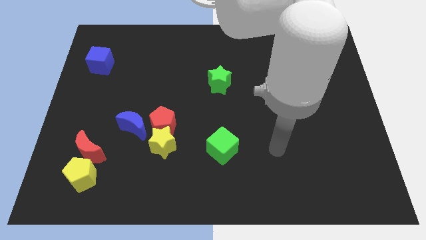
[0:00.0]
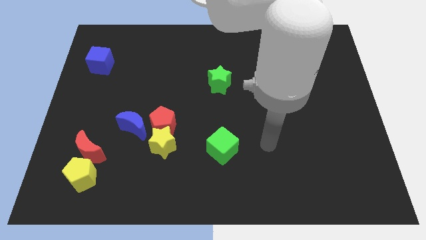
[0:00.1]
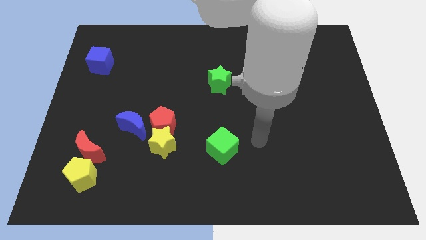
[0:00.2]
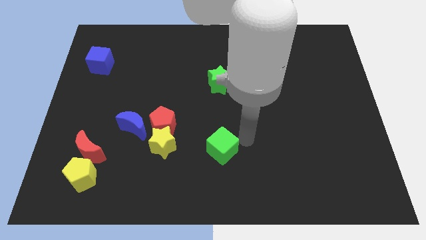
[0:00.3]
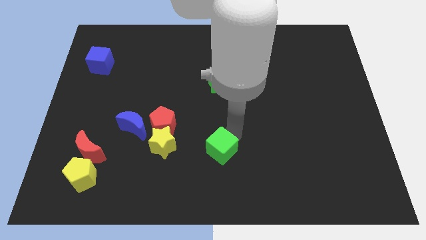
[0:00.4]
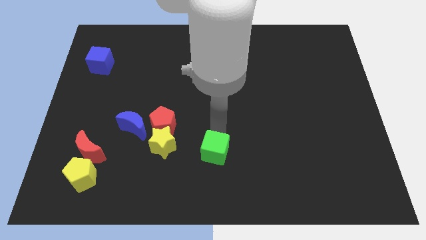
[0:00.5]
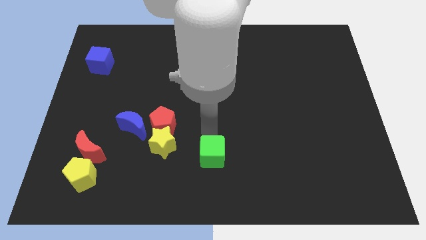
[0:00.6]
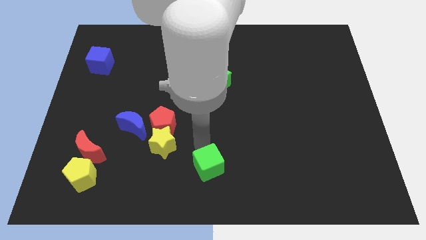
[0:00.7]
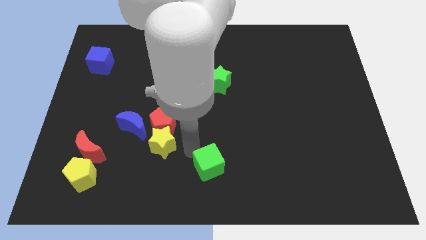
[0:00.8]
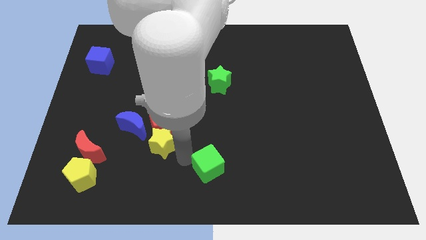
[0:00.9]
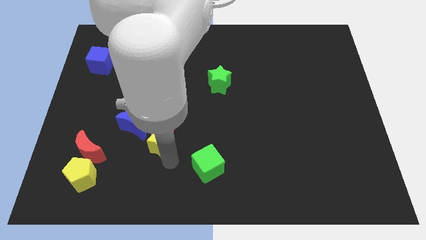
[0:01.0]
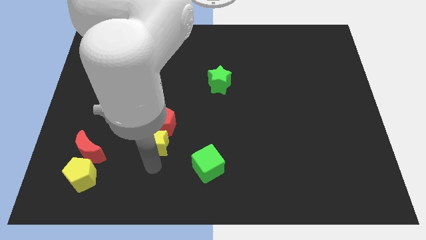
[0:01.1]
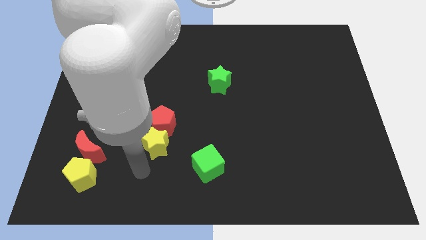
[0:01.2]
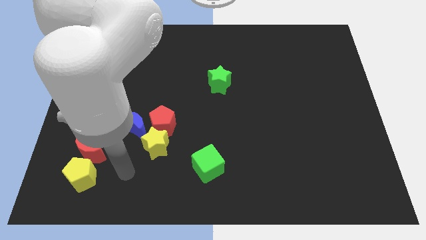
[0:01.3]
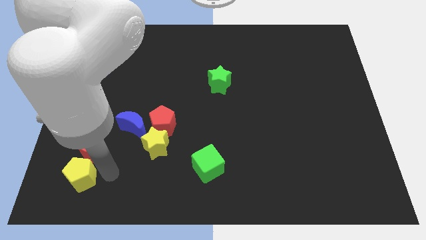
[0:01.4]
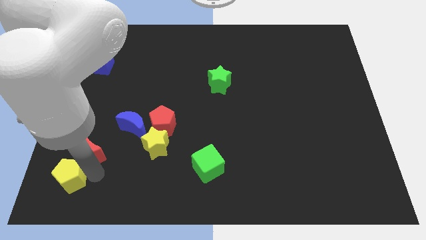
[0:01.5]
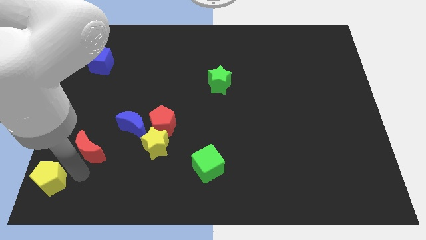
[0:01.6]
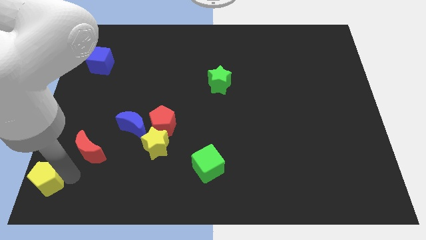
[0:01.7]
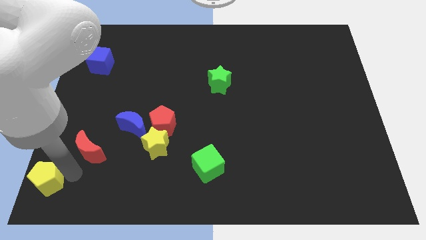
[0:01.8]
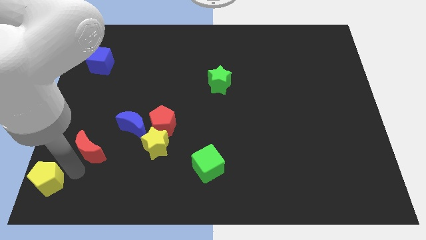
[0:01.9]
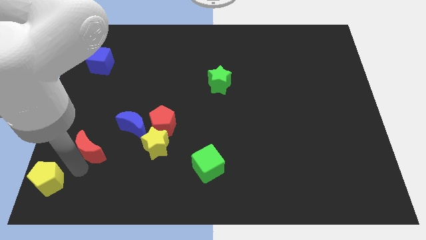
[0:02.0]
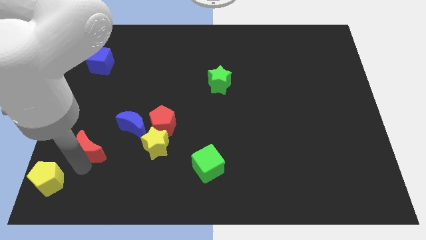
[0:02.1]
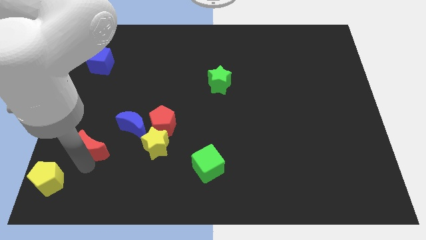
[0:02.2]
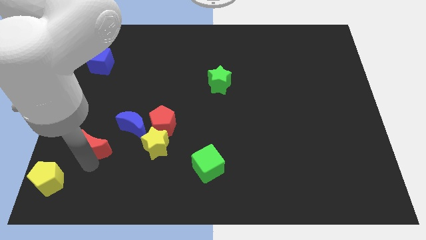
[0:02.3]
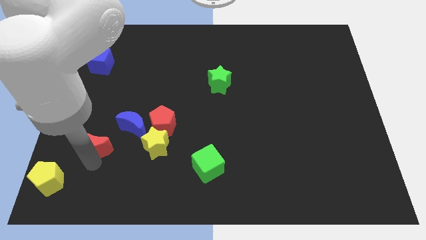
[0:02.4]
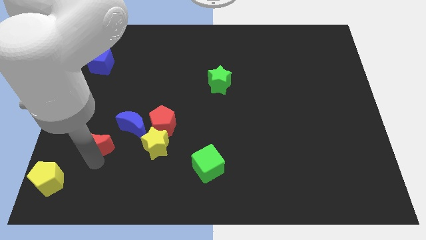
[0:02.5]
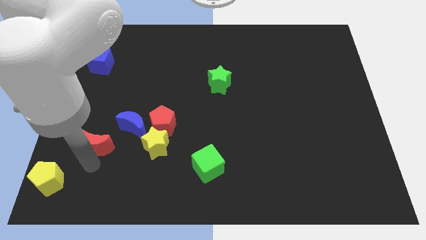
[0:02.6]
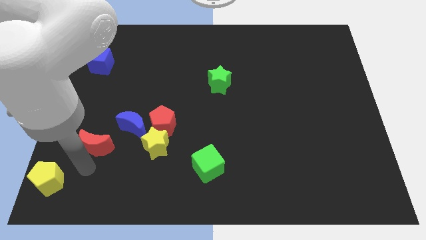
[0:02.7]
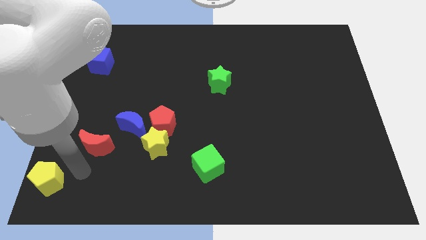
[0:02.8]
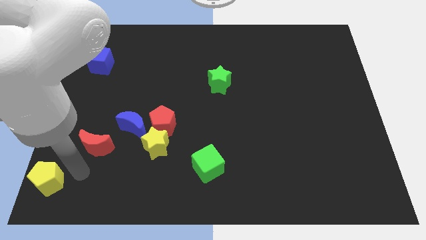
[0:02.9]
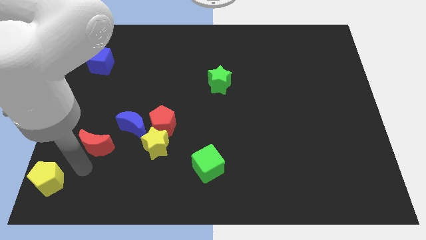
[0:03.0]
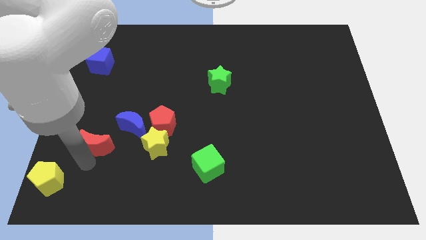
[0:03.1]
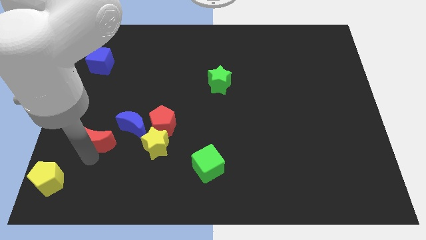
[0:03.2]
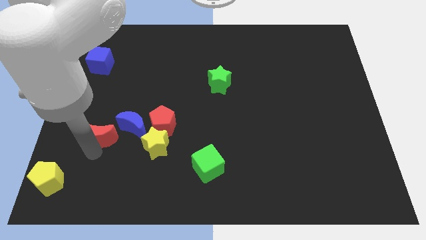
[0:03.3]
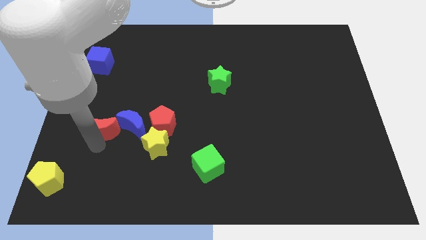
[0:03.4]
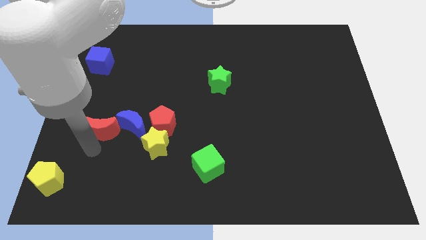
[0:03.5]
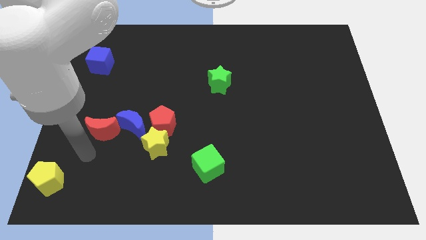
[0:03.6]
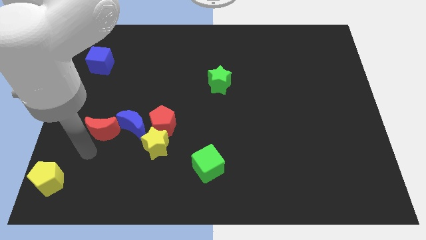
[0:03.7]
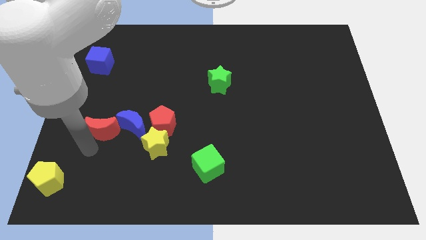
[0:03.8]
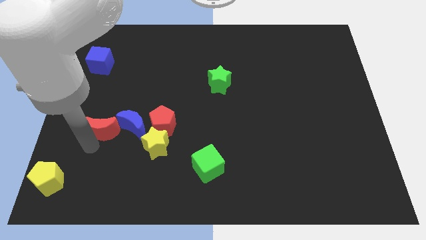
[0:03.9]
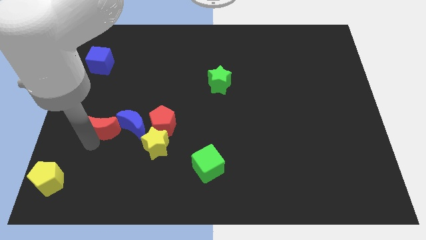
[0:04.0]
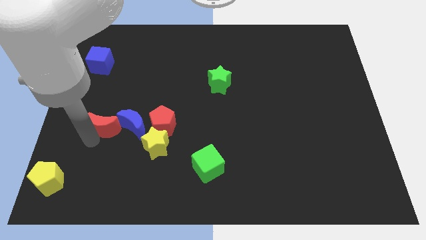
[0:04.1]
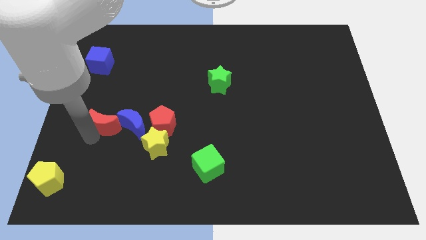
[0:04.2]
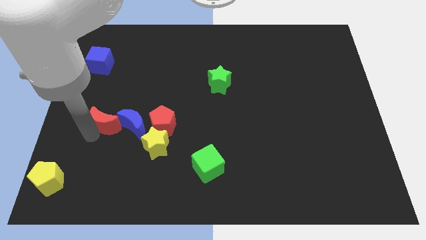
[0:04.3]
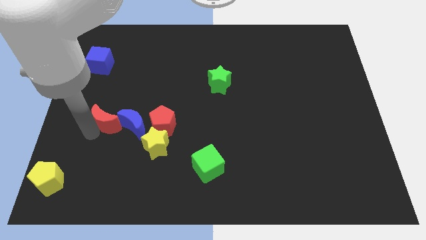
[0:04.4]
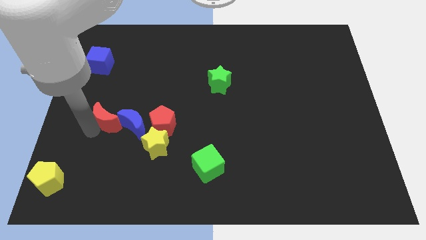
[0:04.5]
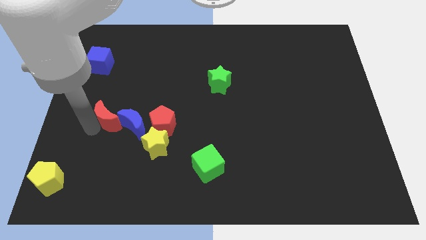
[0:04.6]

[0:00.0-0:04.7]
move the red moon slightly upwards and right

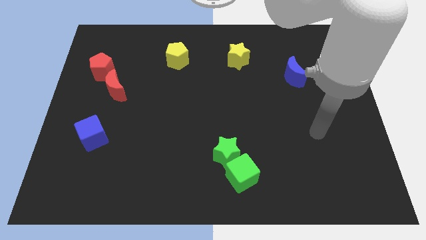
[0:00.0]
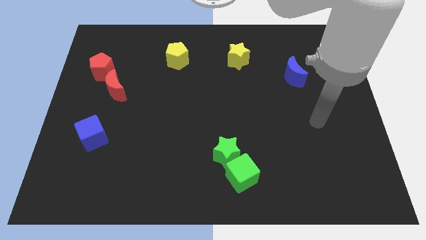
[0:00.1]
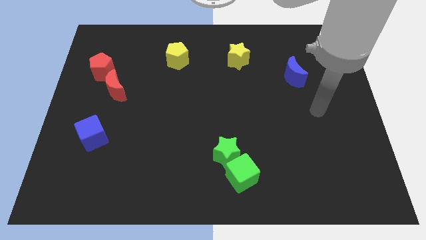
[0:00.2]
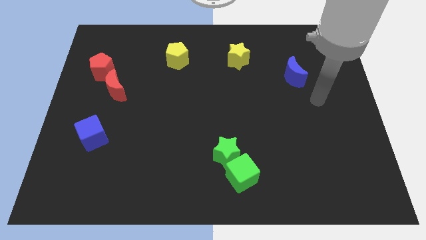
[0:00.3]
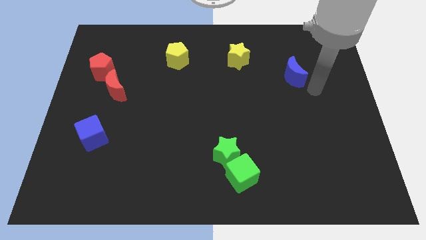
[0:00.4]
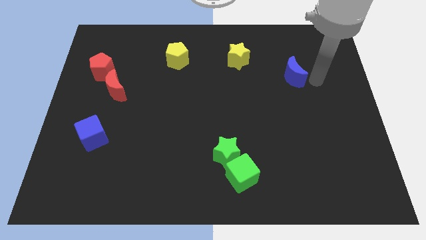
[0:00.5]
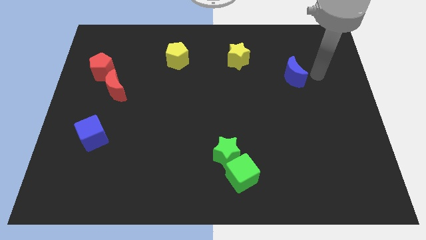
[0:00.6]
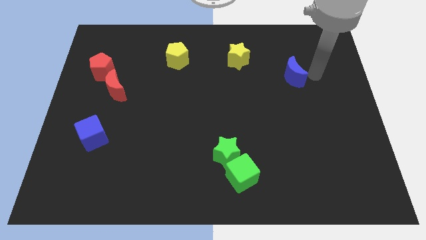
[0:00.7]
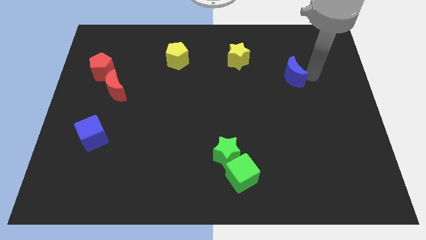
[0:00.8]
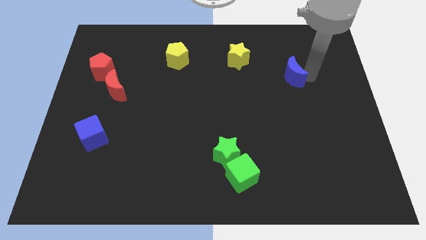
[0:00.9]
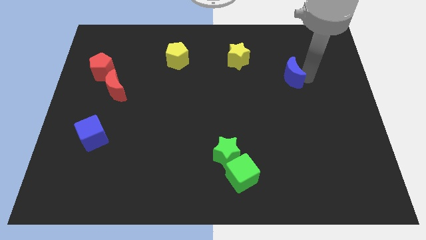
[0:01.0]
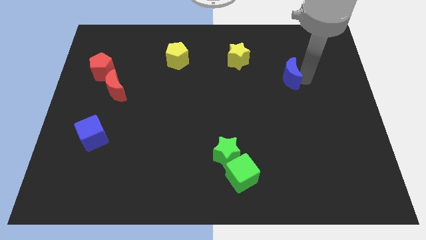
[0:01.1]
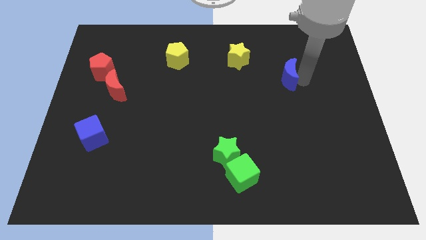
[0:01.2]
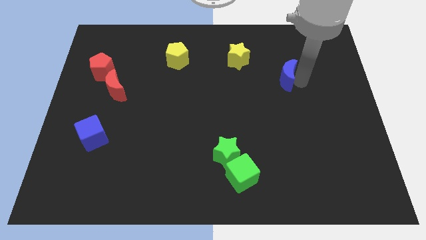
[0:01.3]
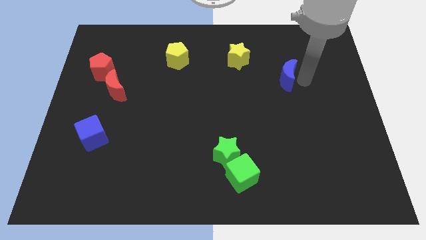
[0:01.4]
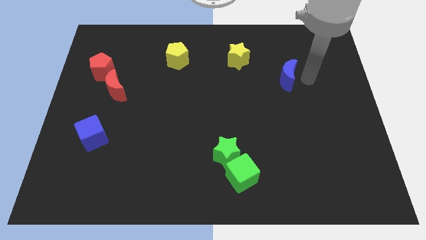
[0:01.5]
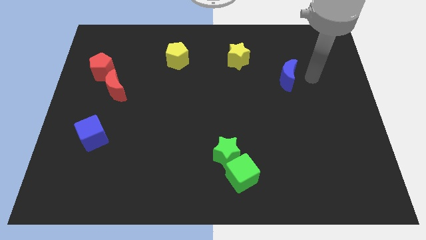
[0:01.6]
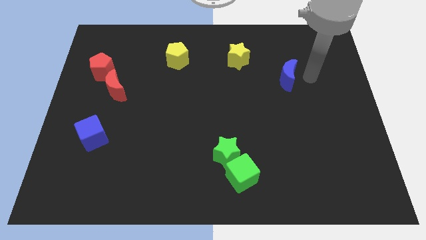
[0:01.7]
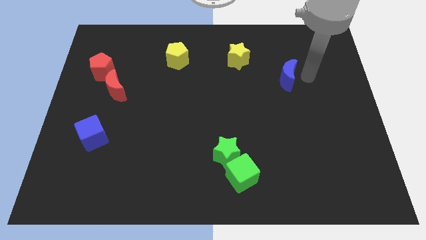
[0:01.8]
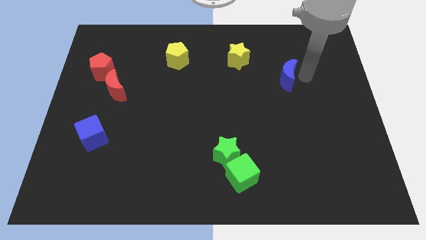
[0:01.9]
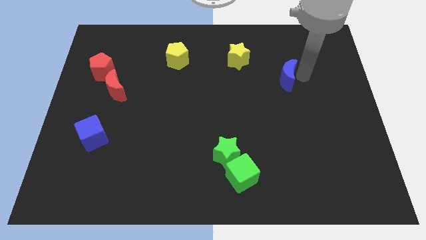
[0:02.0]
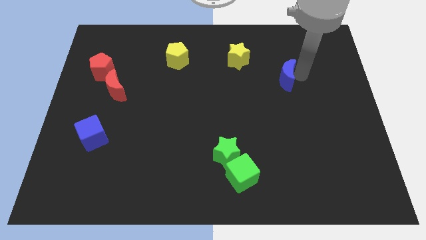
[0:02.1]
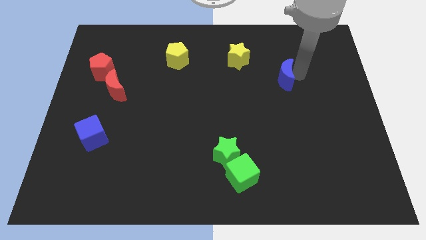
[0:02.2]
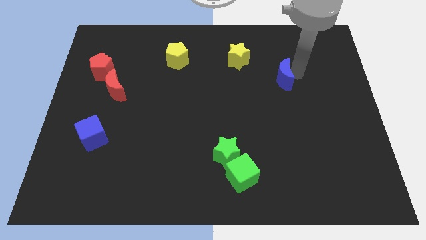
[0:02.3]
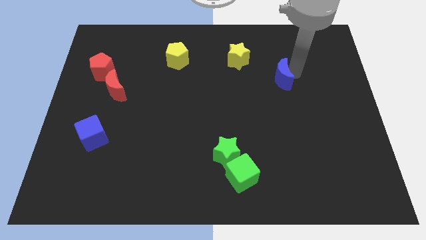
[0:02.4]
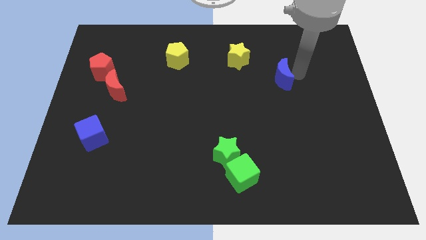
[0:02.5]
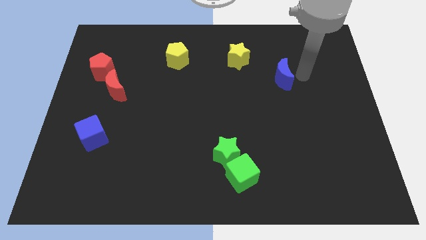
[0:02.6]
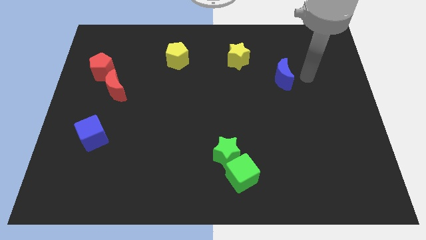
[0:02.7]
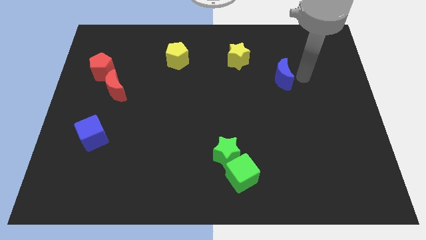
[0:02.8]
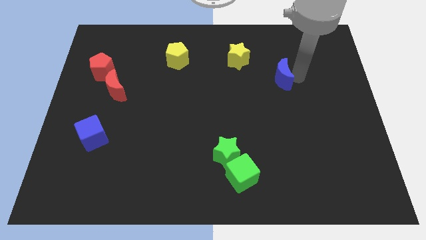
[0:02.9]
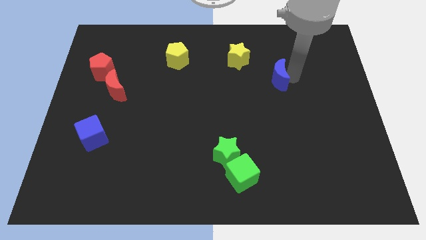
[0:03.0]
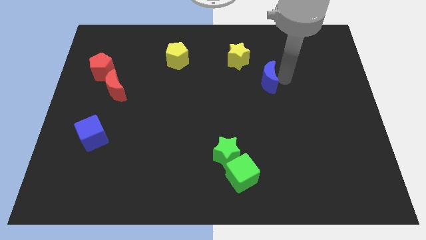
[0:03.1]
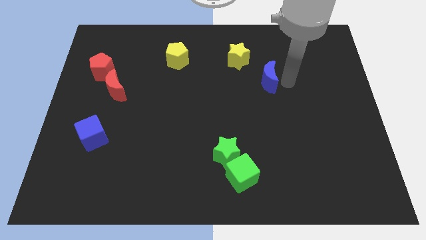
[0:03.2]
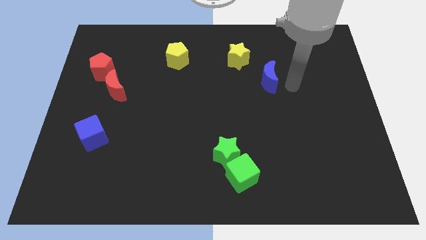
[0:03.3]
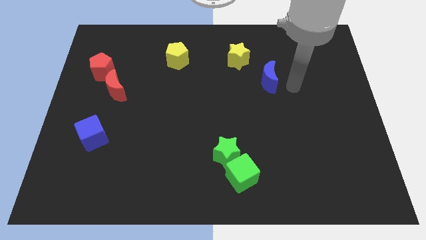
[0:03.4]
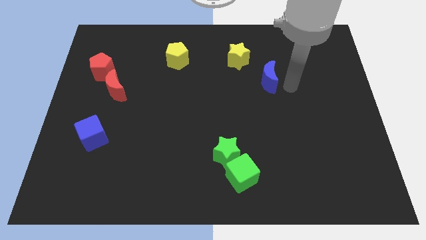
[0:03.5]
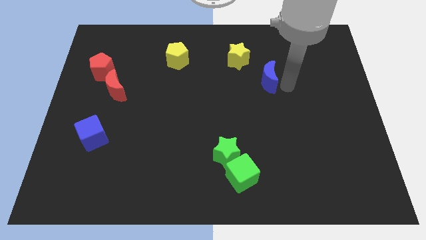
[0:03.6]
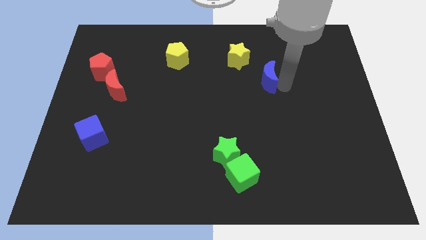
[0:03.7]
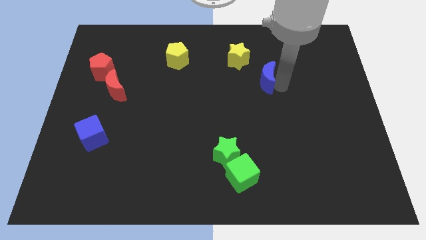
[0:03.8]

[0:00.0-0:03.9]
slide the blue moon slightly to the left
